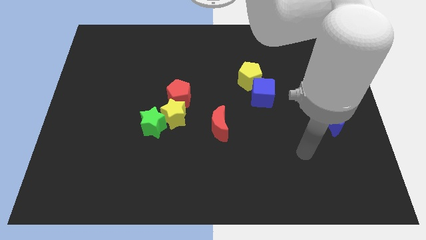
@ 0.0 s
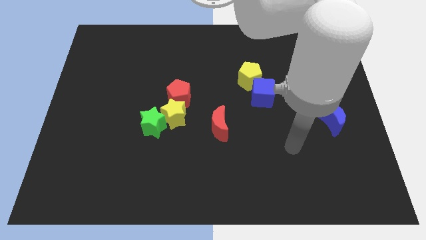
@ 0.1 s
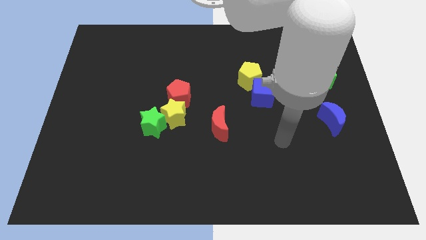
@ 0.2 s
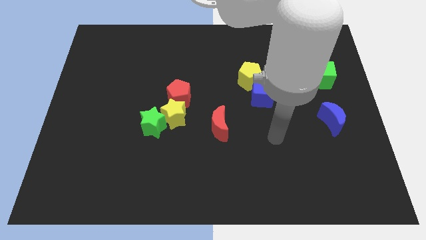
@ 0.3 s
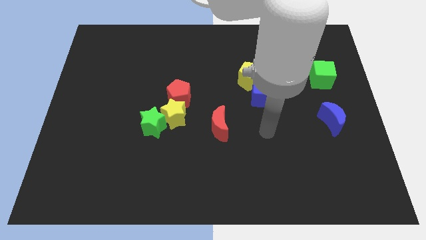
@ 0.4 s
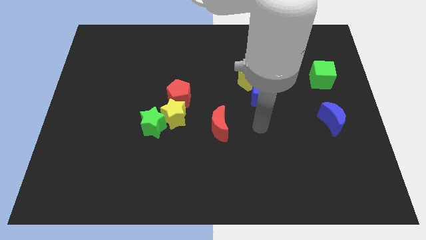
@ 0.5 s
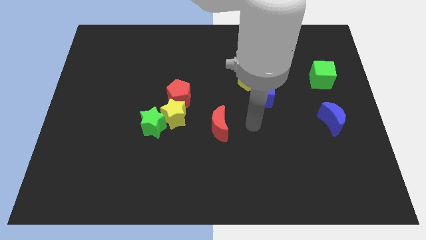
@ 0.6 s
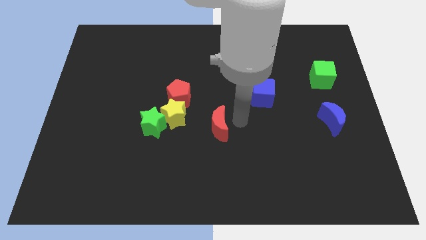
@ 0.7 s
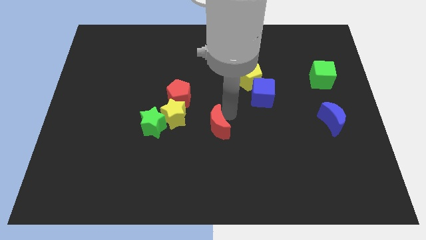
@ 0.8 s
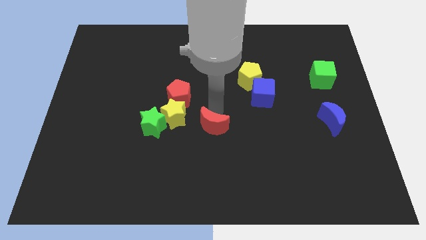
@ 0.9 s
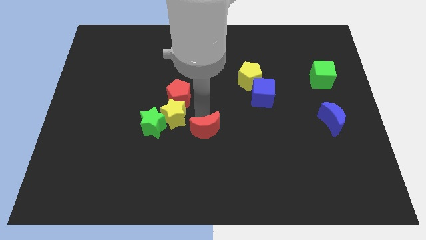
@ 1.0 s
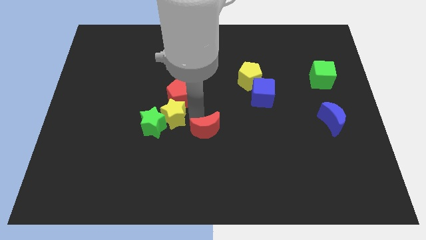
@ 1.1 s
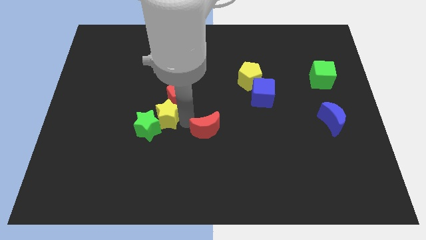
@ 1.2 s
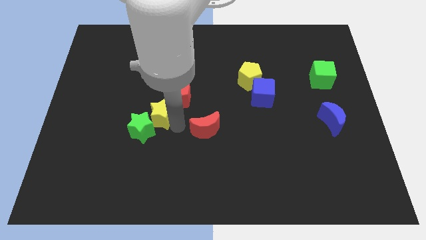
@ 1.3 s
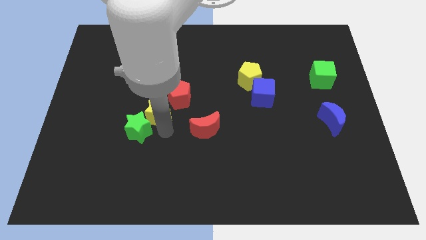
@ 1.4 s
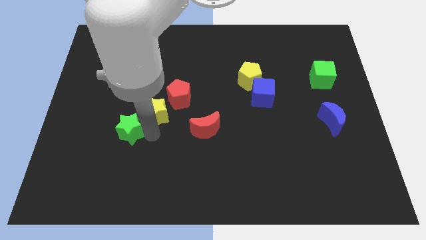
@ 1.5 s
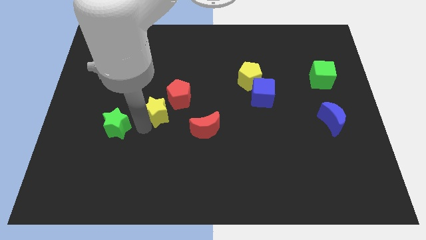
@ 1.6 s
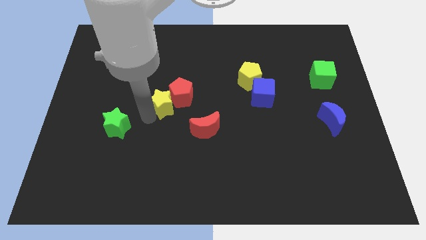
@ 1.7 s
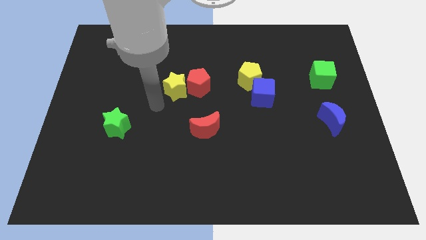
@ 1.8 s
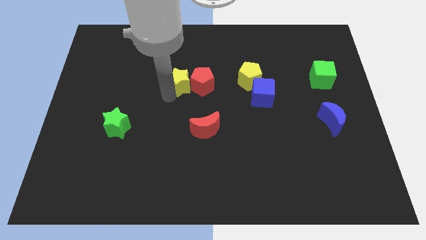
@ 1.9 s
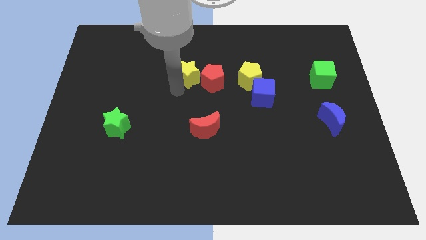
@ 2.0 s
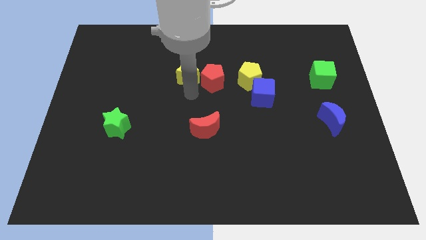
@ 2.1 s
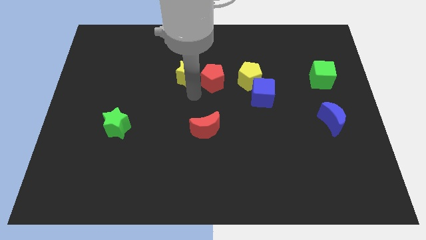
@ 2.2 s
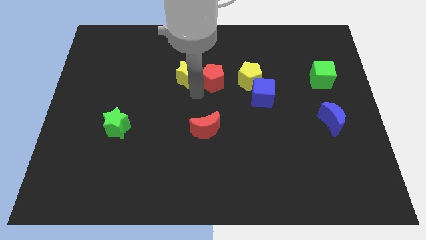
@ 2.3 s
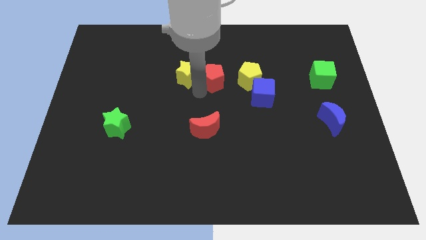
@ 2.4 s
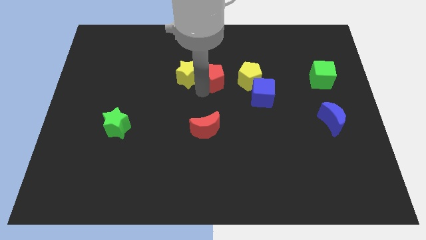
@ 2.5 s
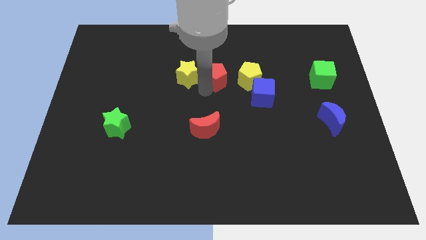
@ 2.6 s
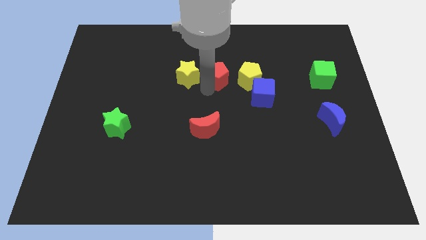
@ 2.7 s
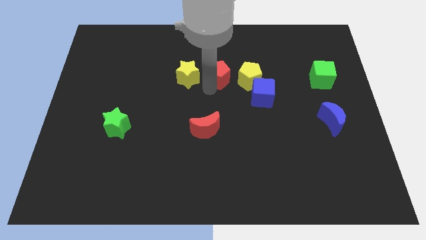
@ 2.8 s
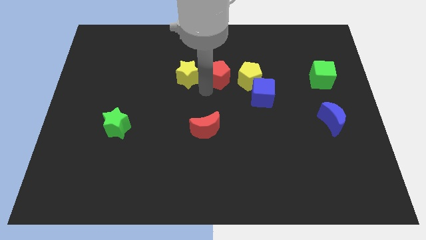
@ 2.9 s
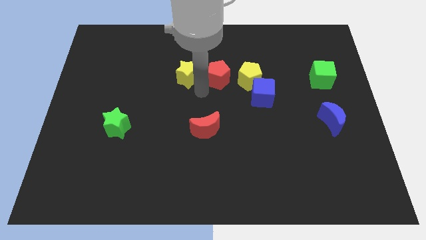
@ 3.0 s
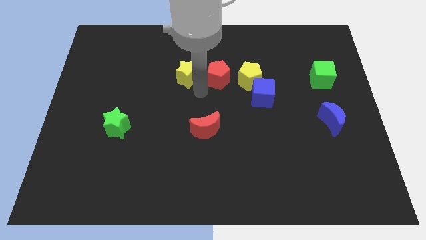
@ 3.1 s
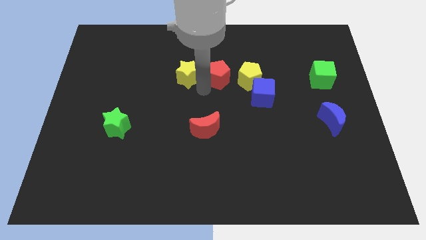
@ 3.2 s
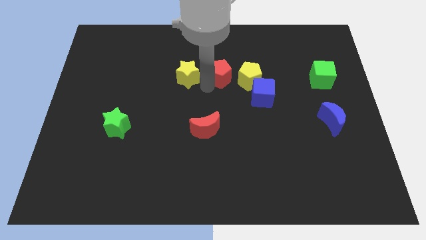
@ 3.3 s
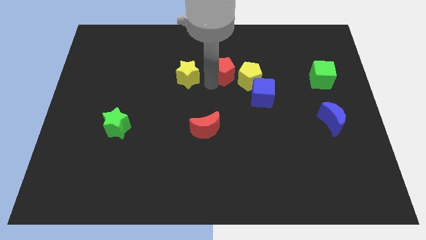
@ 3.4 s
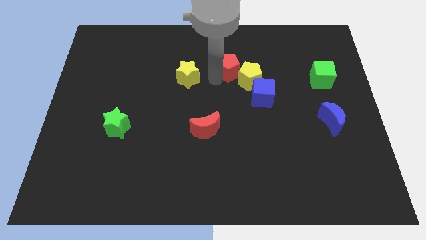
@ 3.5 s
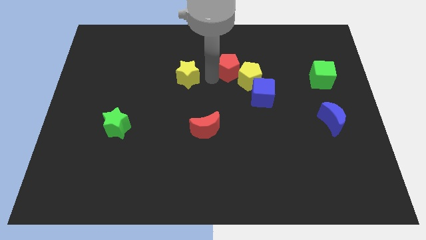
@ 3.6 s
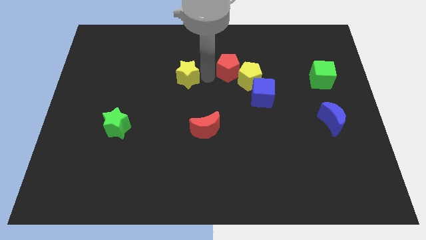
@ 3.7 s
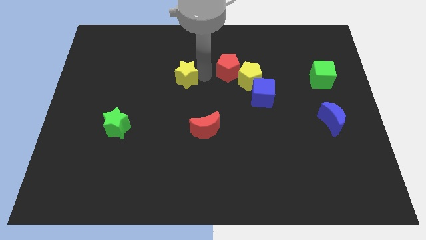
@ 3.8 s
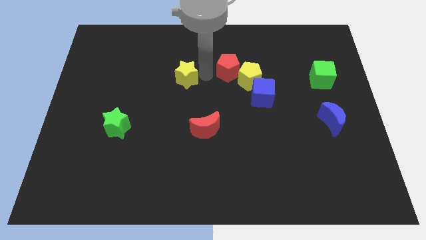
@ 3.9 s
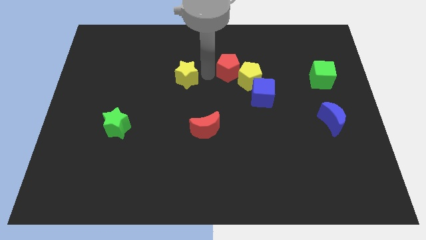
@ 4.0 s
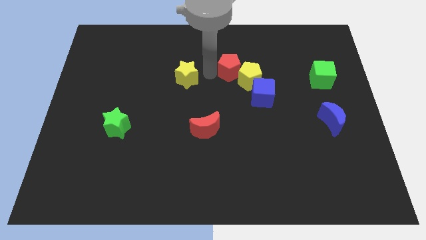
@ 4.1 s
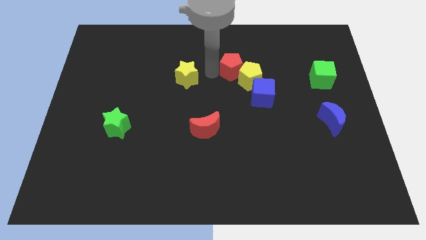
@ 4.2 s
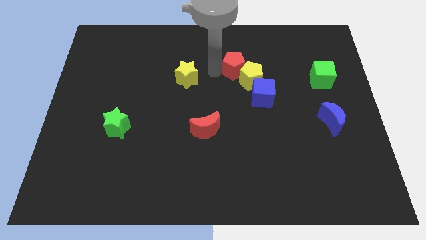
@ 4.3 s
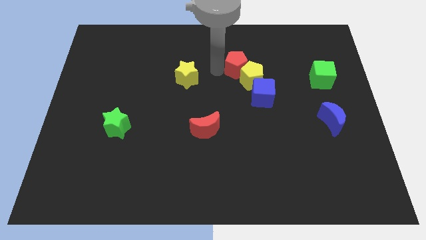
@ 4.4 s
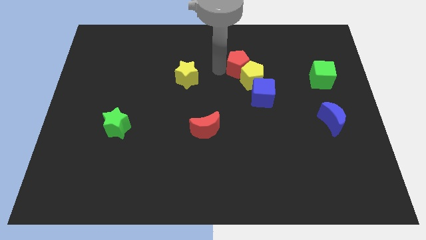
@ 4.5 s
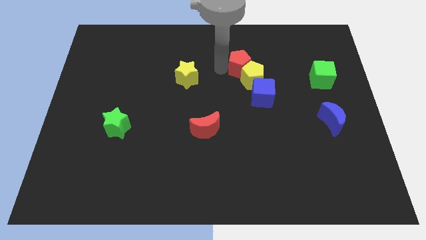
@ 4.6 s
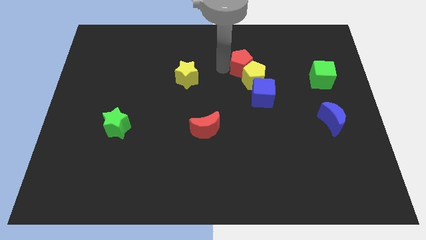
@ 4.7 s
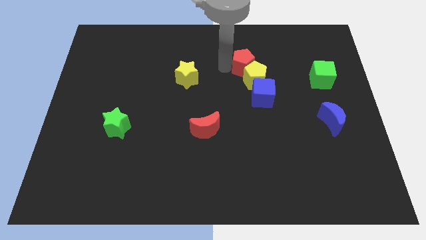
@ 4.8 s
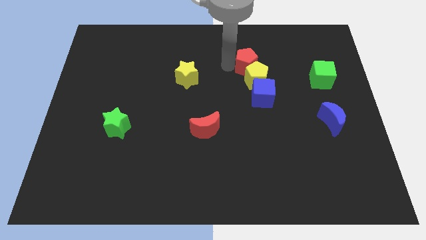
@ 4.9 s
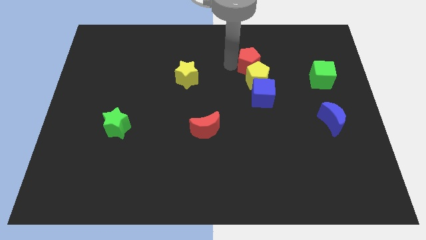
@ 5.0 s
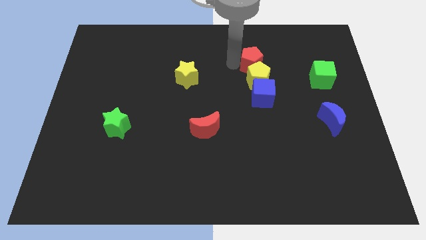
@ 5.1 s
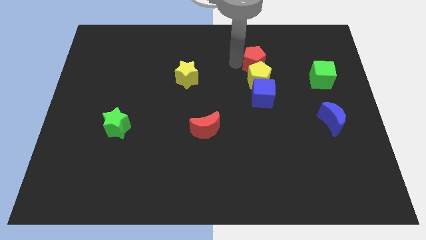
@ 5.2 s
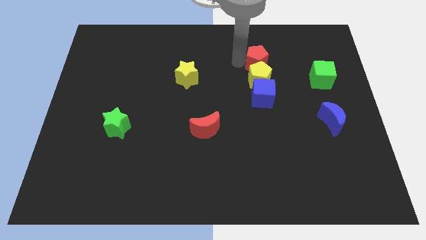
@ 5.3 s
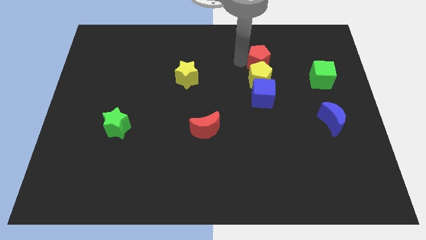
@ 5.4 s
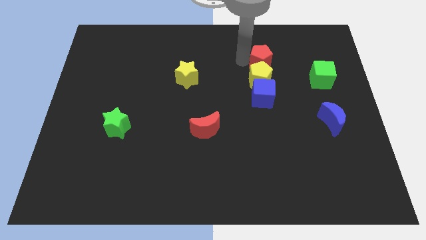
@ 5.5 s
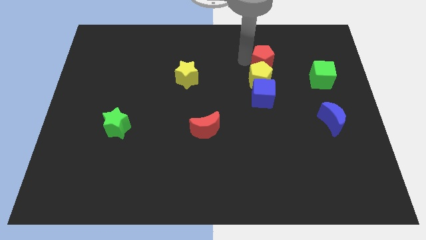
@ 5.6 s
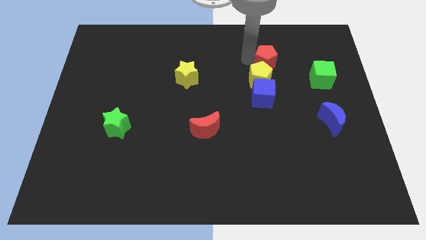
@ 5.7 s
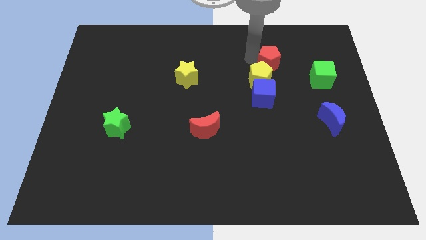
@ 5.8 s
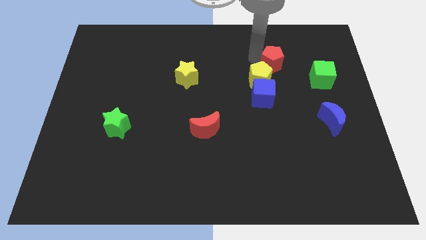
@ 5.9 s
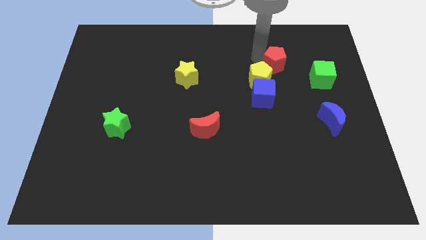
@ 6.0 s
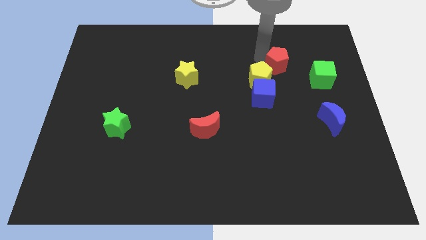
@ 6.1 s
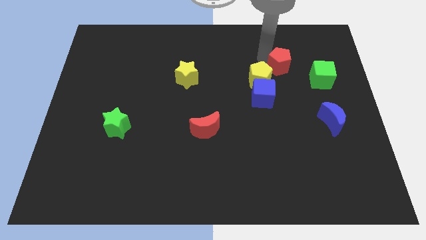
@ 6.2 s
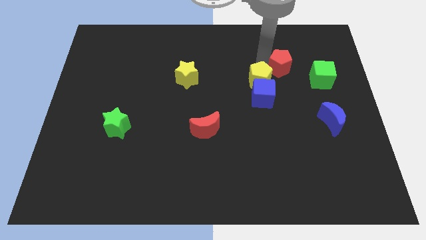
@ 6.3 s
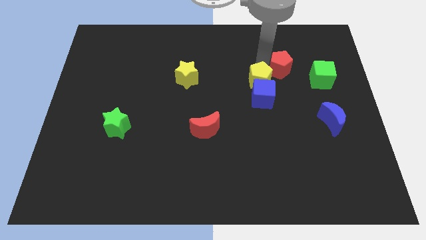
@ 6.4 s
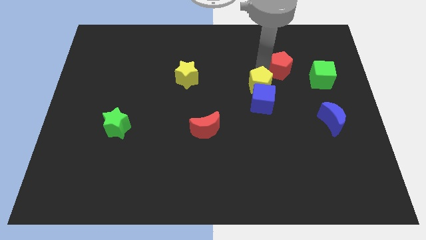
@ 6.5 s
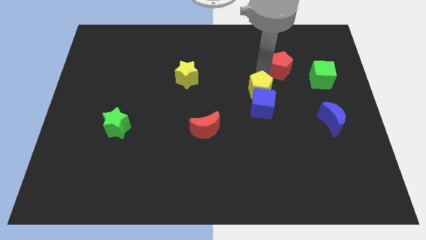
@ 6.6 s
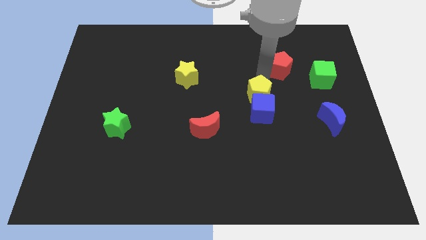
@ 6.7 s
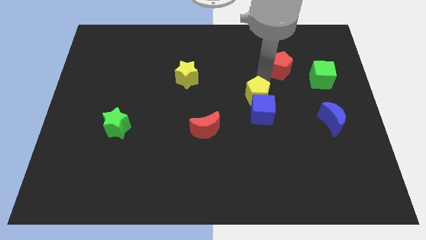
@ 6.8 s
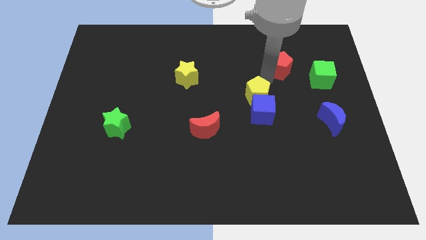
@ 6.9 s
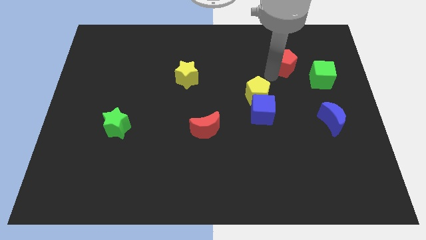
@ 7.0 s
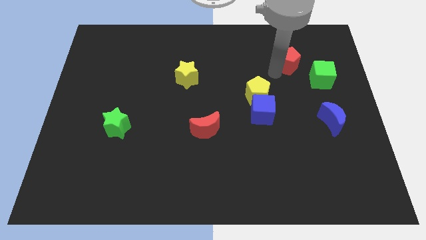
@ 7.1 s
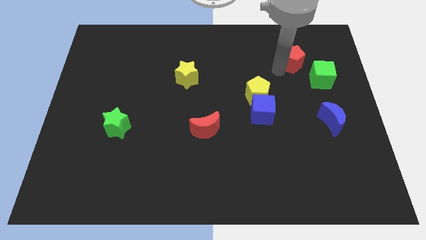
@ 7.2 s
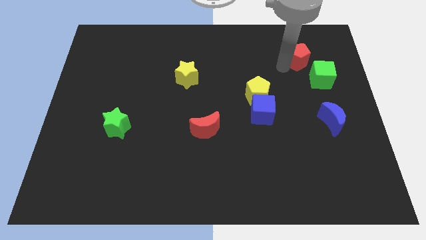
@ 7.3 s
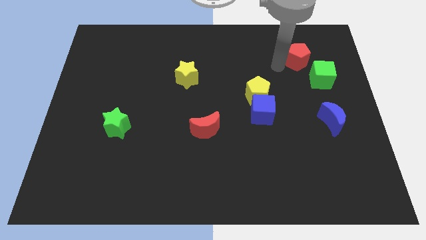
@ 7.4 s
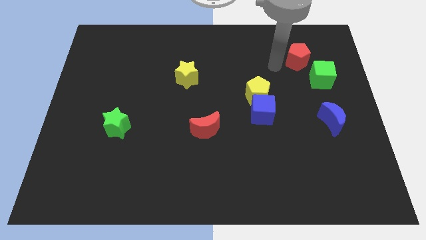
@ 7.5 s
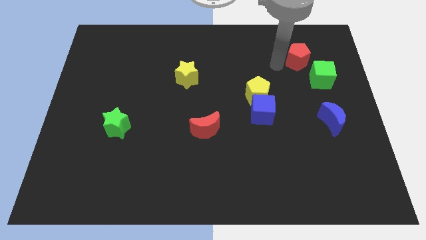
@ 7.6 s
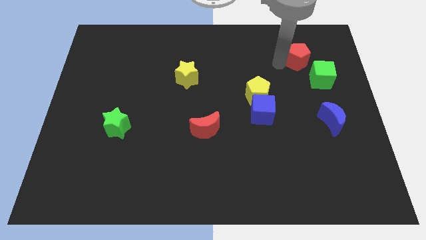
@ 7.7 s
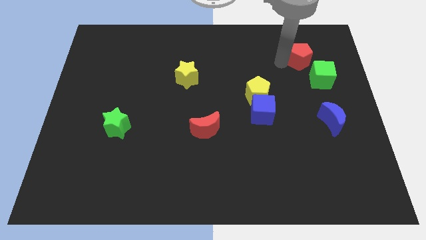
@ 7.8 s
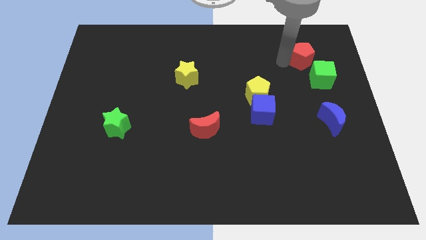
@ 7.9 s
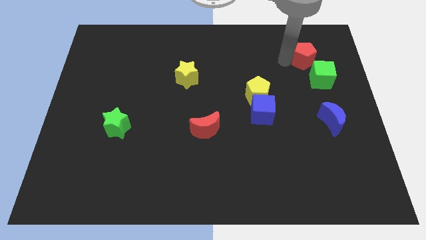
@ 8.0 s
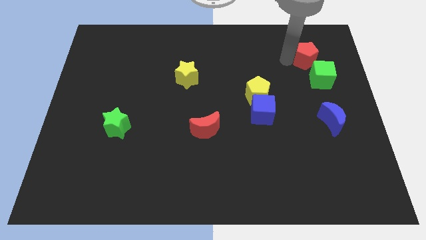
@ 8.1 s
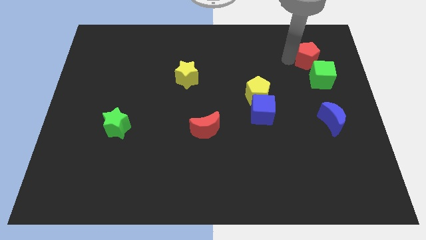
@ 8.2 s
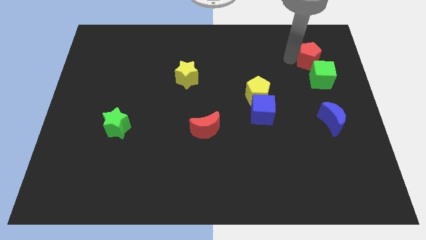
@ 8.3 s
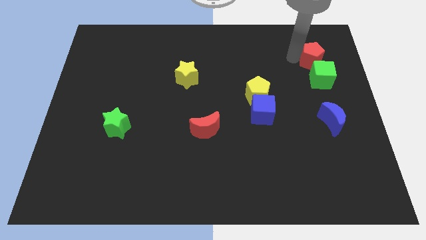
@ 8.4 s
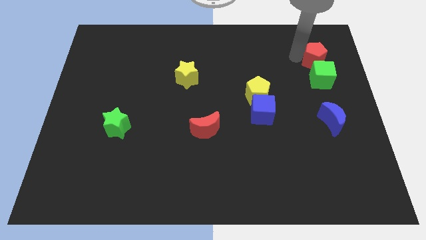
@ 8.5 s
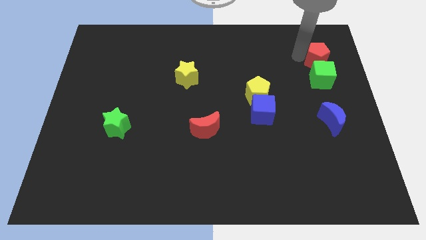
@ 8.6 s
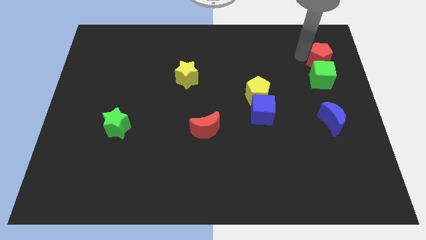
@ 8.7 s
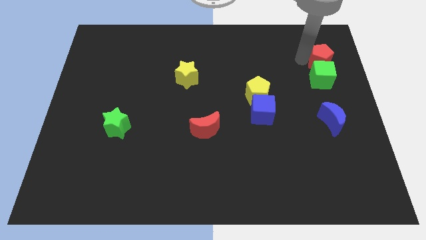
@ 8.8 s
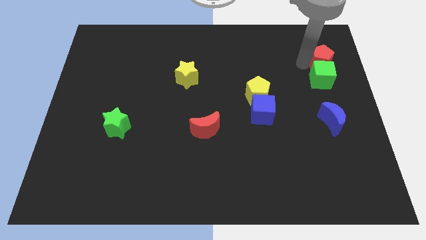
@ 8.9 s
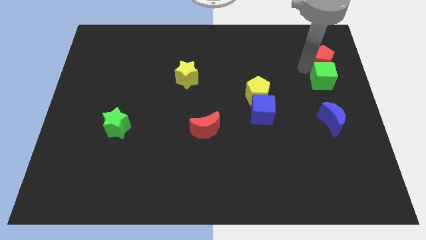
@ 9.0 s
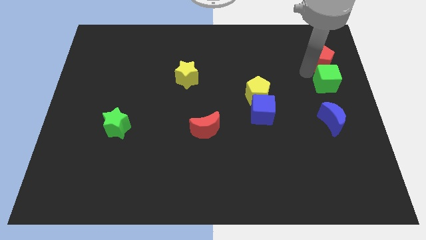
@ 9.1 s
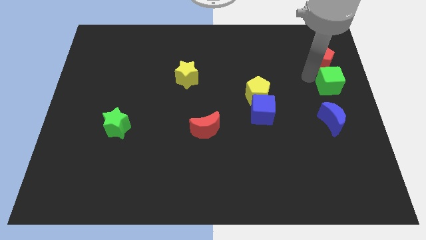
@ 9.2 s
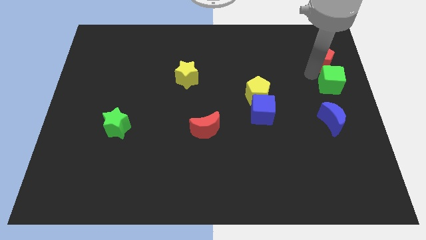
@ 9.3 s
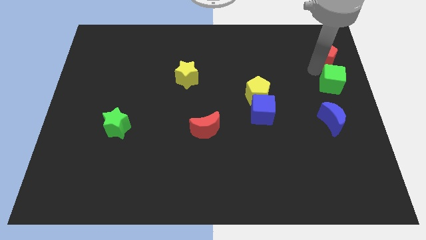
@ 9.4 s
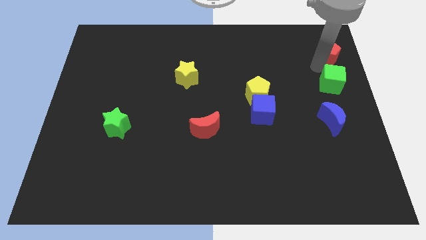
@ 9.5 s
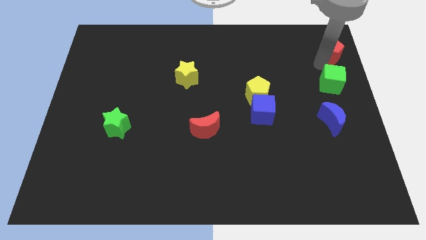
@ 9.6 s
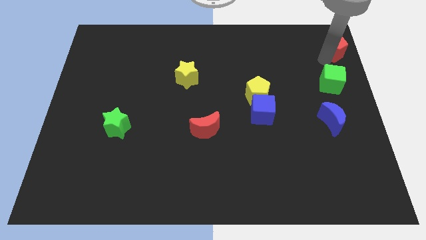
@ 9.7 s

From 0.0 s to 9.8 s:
put the red pentagon to the upper right corner
